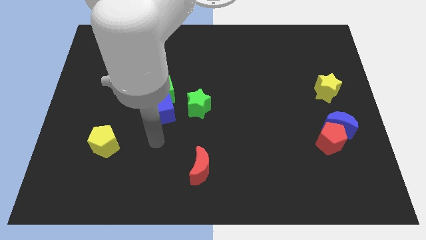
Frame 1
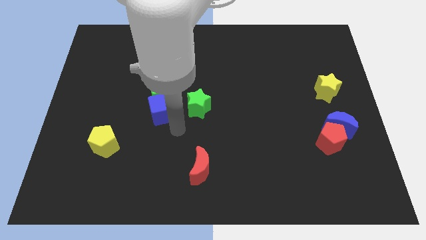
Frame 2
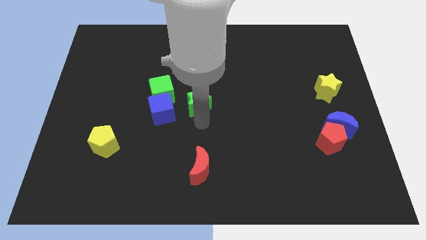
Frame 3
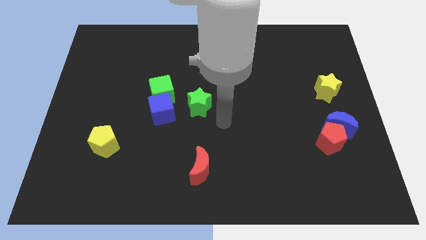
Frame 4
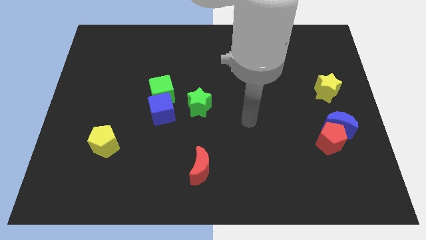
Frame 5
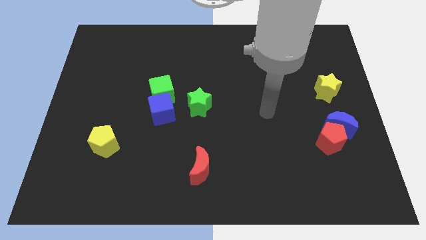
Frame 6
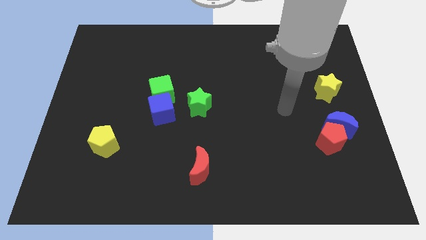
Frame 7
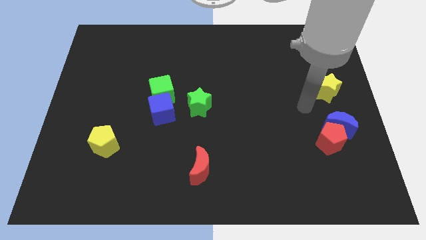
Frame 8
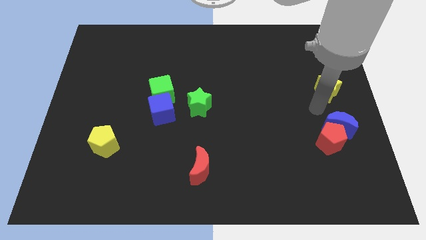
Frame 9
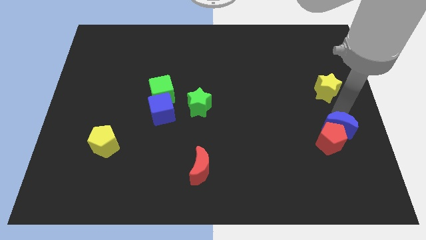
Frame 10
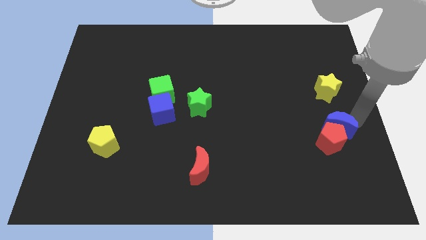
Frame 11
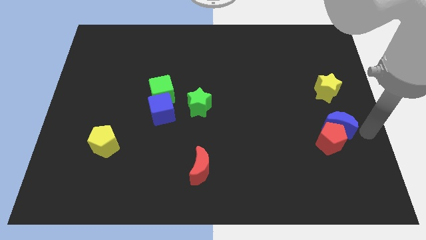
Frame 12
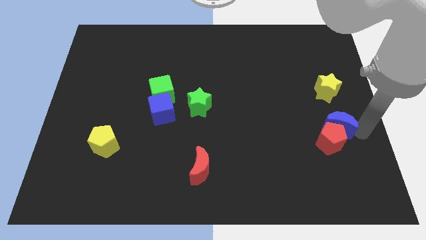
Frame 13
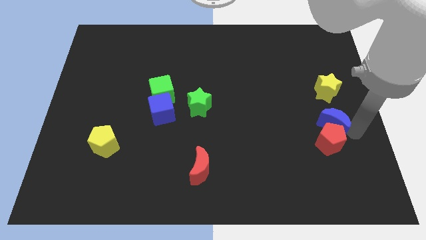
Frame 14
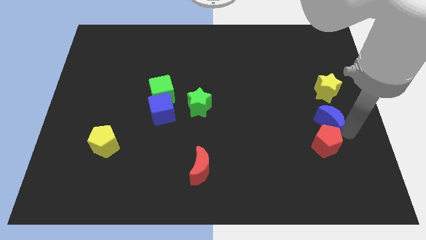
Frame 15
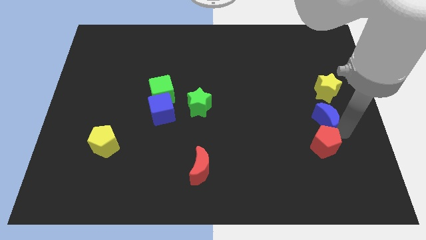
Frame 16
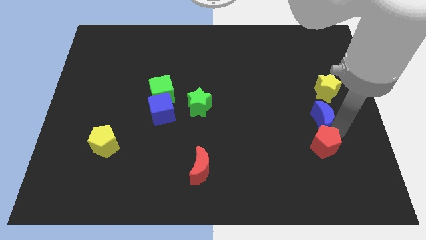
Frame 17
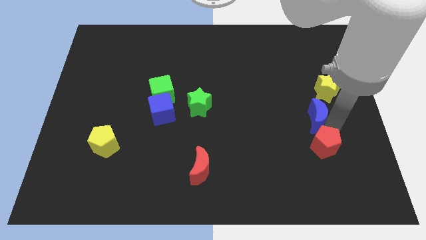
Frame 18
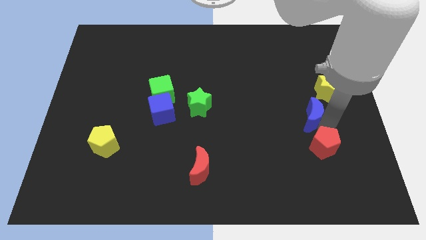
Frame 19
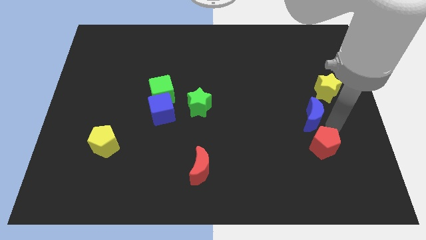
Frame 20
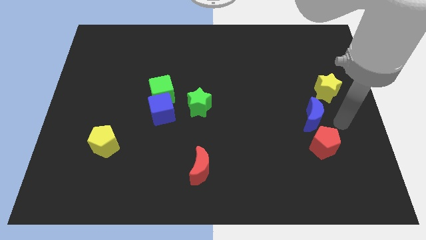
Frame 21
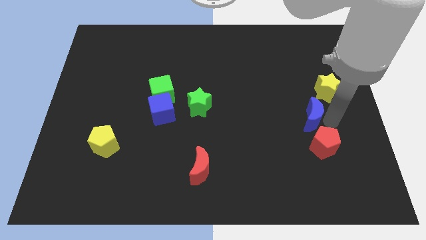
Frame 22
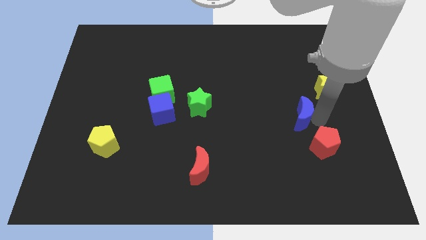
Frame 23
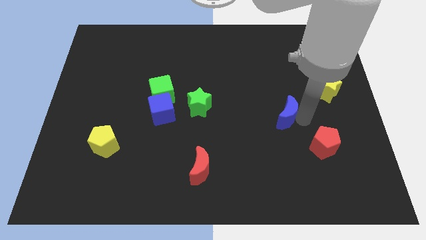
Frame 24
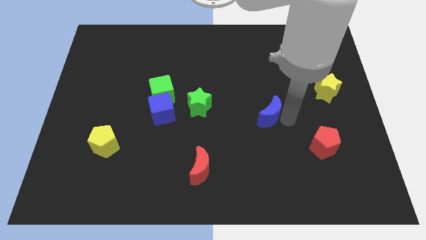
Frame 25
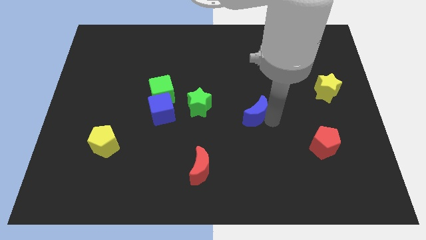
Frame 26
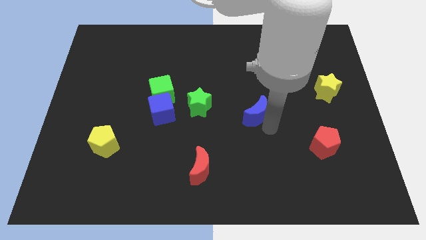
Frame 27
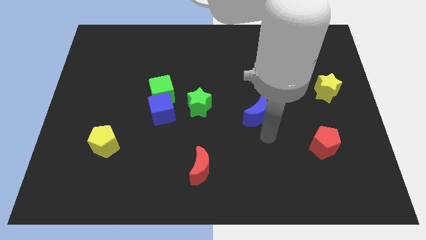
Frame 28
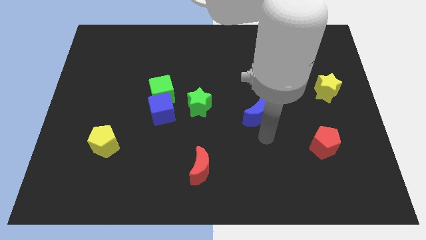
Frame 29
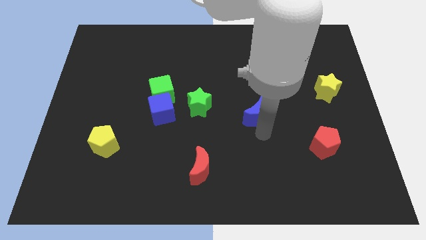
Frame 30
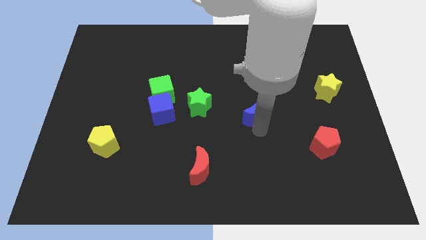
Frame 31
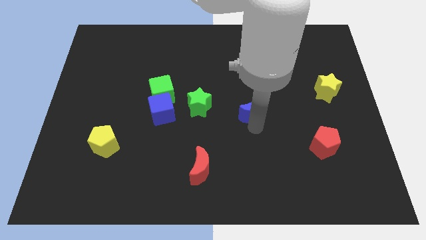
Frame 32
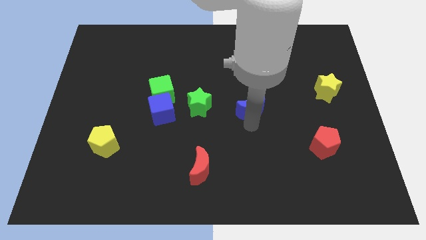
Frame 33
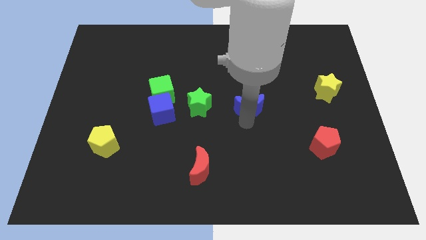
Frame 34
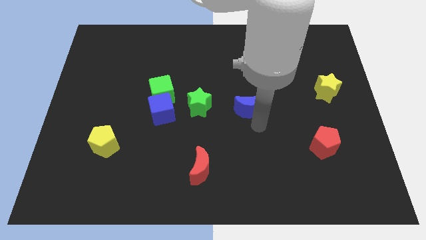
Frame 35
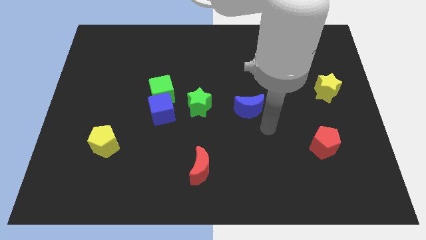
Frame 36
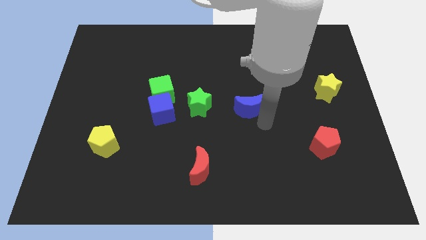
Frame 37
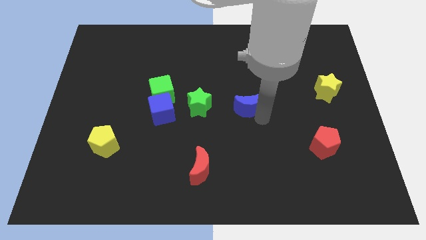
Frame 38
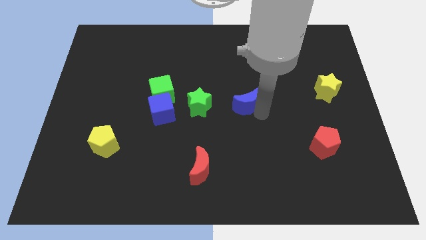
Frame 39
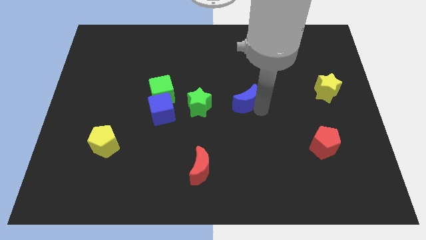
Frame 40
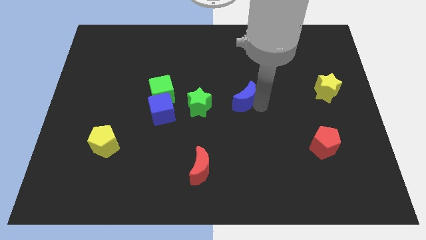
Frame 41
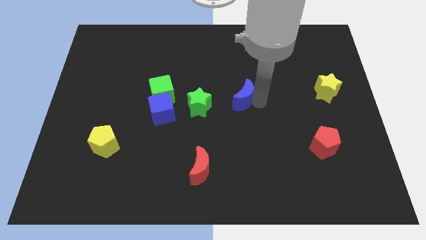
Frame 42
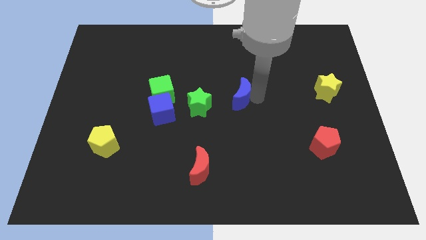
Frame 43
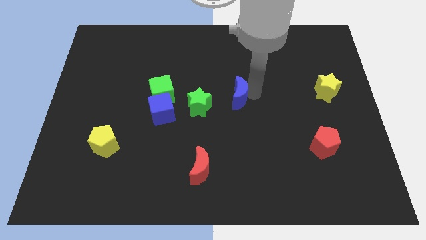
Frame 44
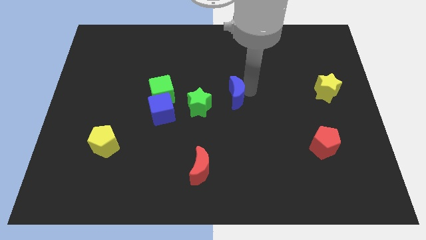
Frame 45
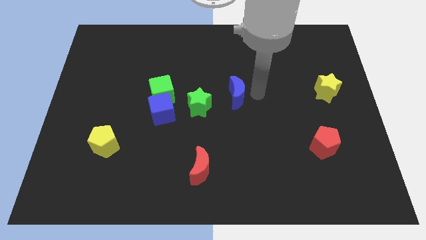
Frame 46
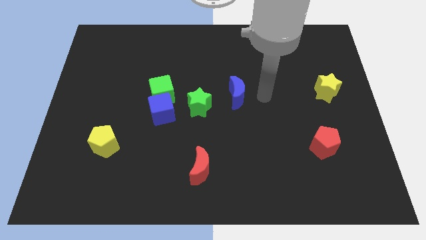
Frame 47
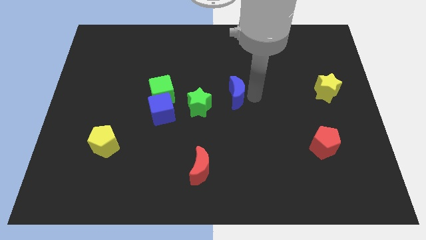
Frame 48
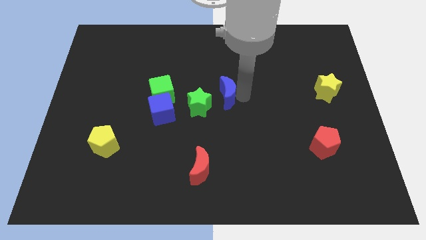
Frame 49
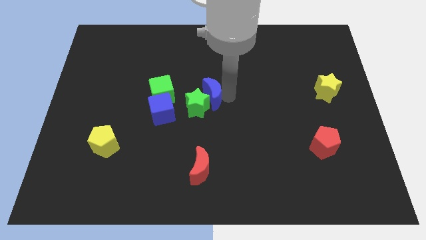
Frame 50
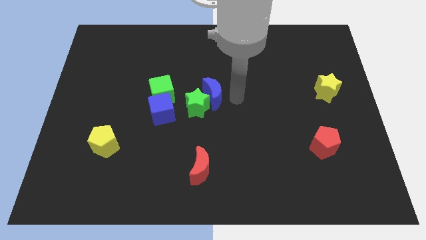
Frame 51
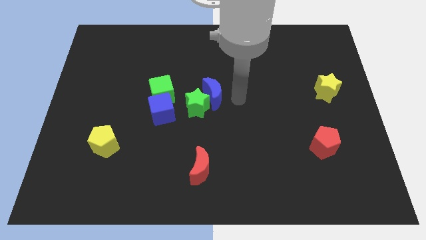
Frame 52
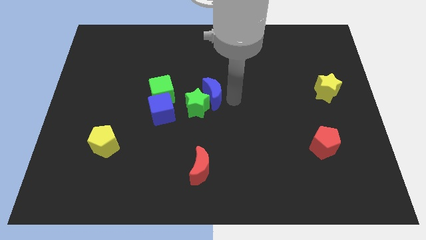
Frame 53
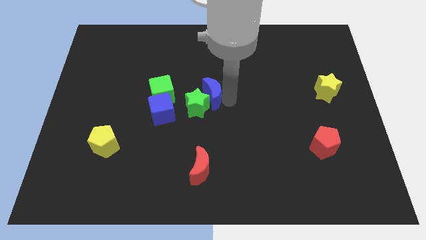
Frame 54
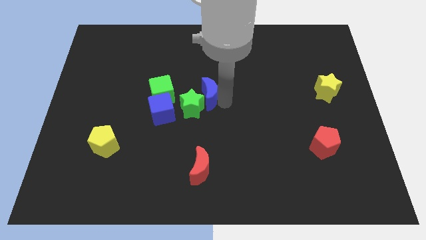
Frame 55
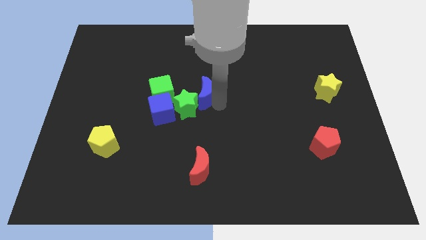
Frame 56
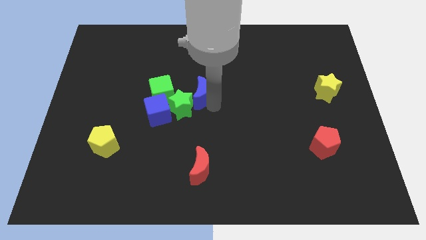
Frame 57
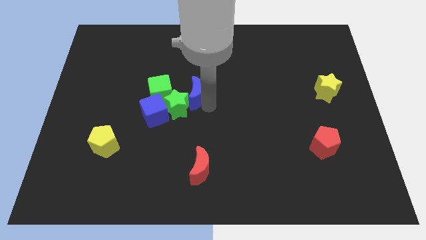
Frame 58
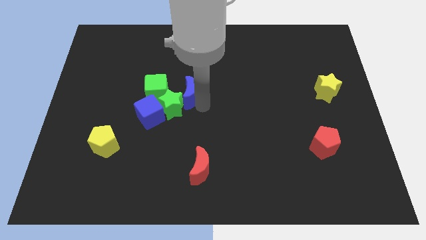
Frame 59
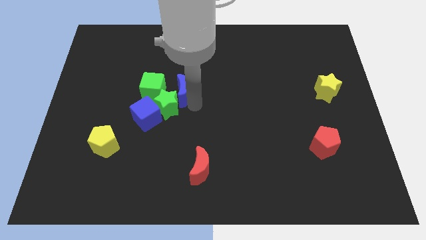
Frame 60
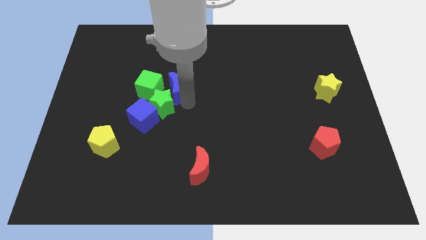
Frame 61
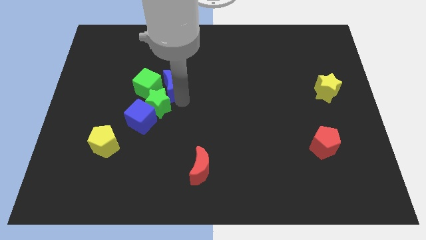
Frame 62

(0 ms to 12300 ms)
push the blue moon close to the green cube

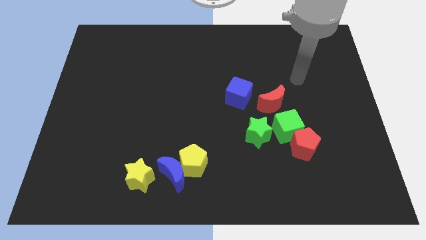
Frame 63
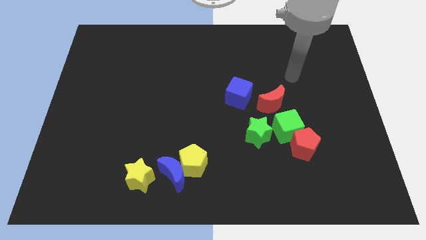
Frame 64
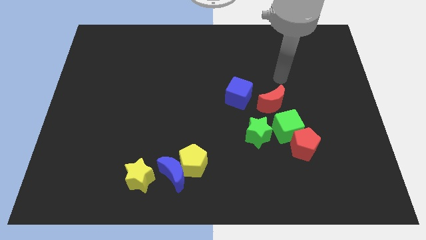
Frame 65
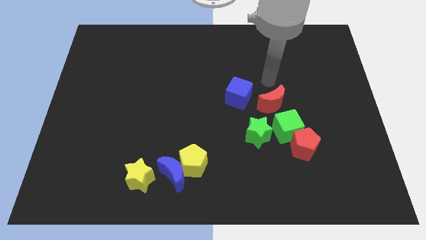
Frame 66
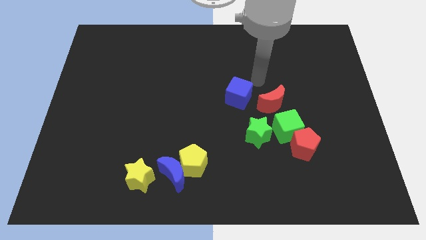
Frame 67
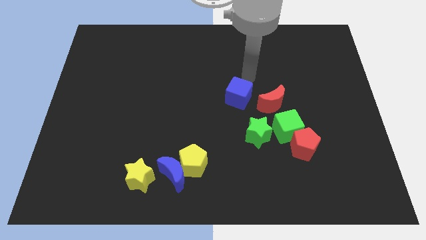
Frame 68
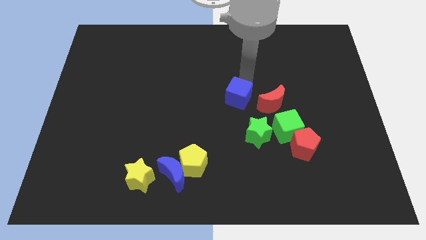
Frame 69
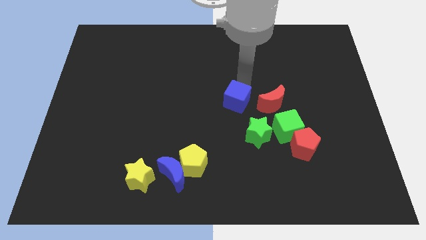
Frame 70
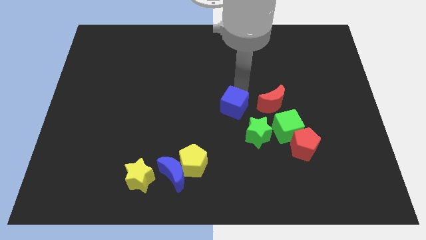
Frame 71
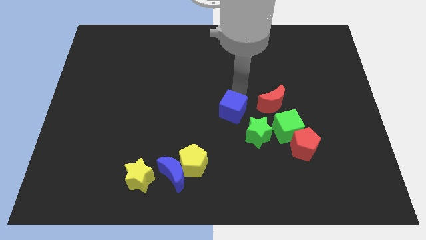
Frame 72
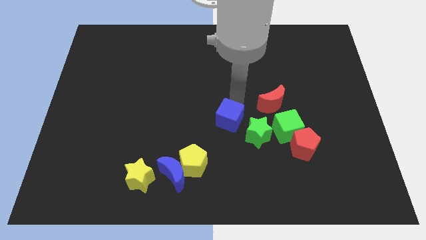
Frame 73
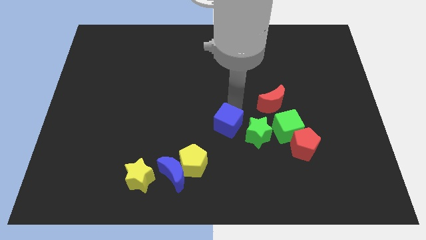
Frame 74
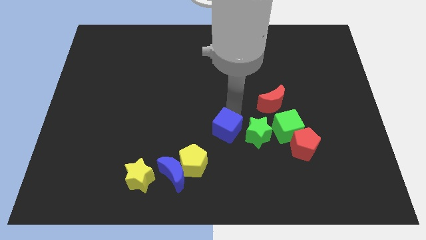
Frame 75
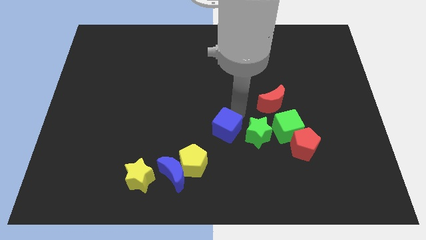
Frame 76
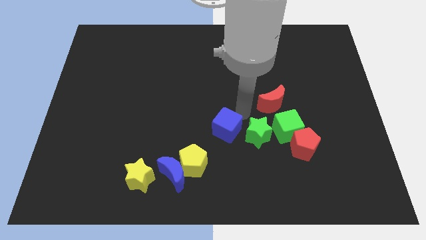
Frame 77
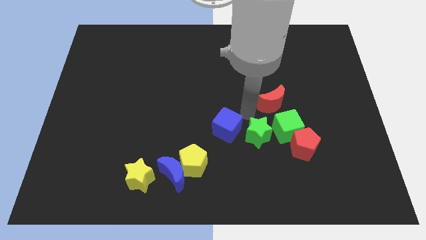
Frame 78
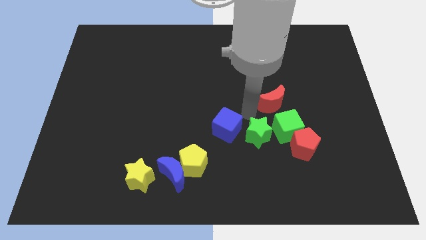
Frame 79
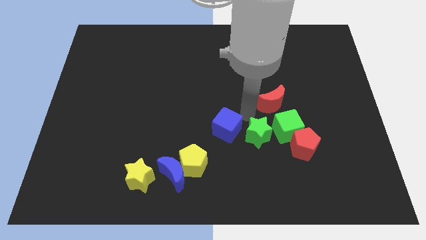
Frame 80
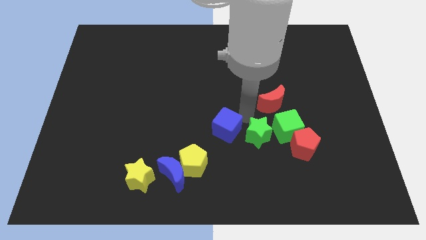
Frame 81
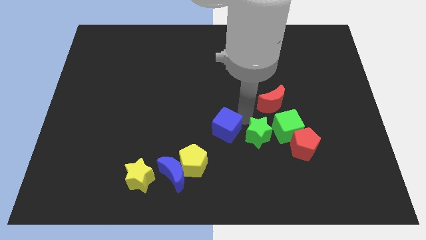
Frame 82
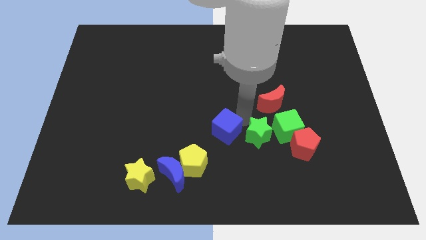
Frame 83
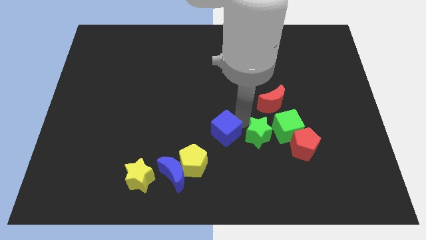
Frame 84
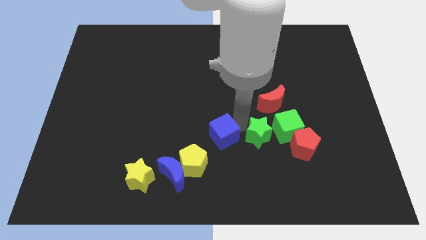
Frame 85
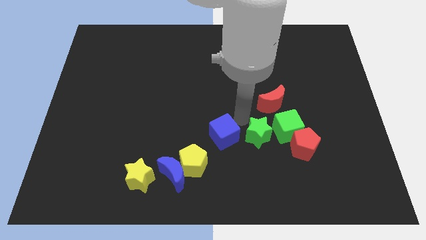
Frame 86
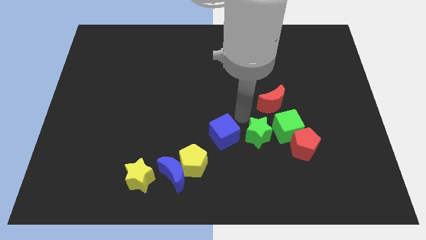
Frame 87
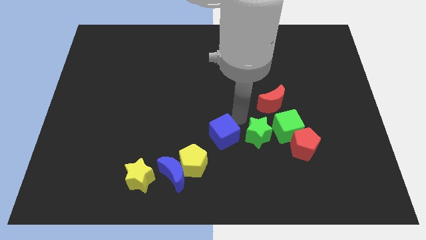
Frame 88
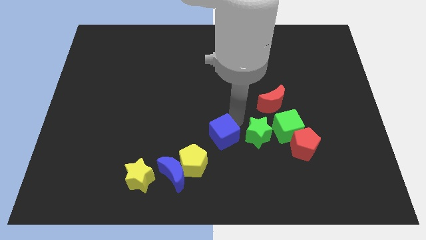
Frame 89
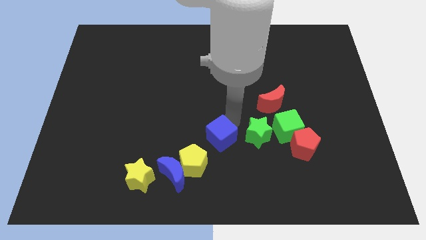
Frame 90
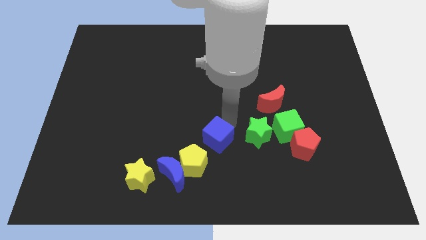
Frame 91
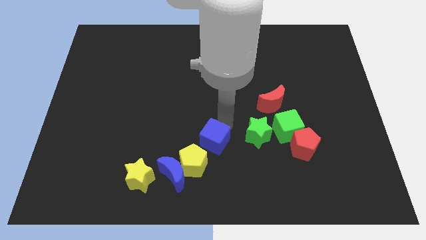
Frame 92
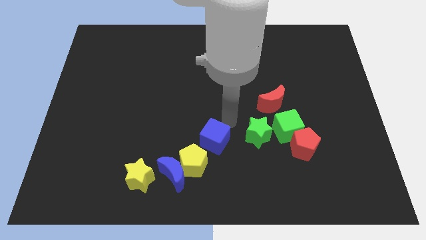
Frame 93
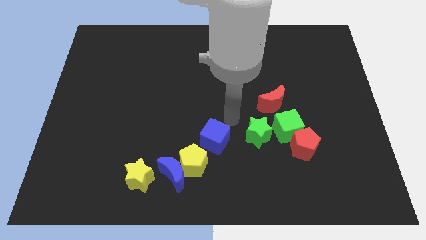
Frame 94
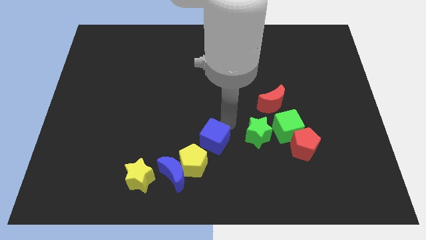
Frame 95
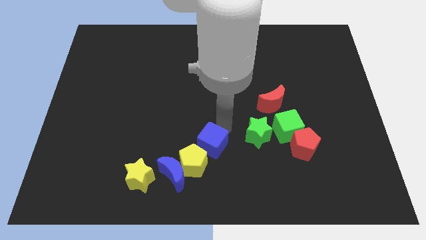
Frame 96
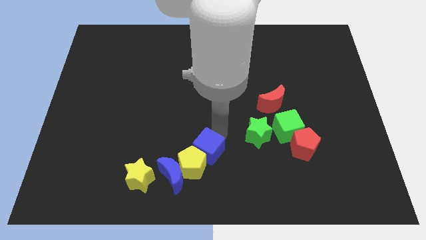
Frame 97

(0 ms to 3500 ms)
push the blue cube to the yellow pentagon
